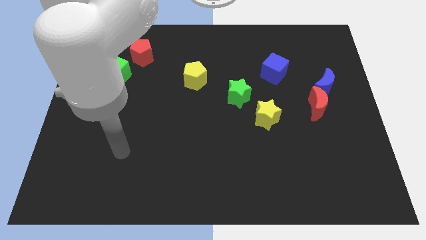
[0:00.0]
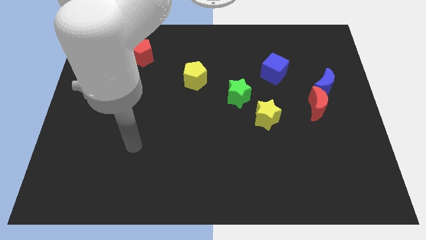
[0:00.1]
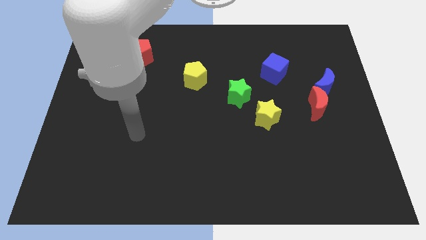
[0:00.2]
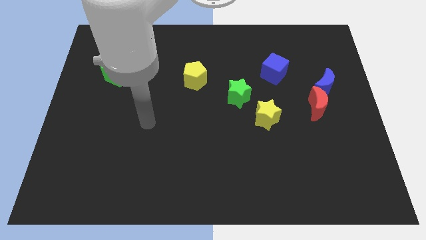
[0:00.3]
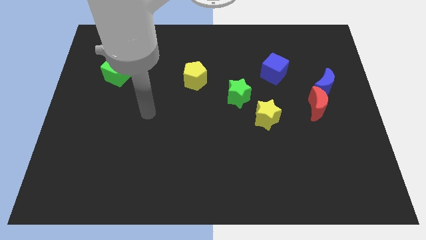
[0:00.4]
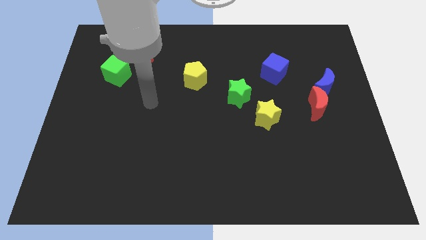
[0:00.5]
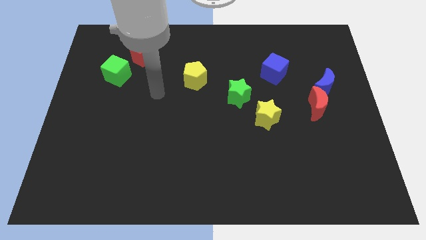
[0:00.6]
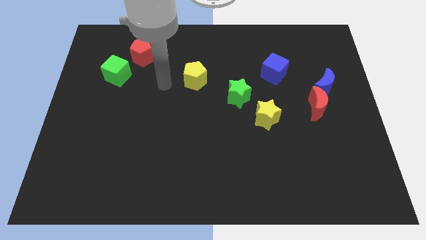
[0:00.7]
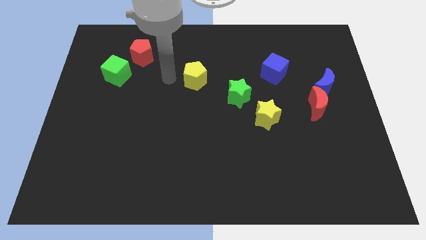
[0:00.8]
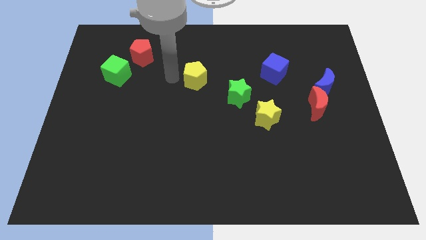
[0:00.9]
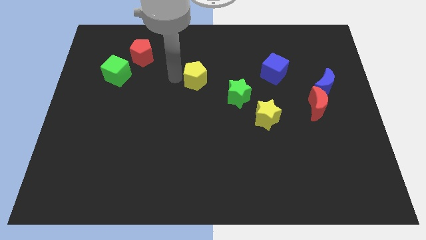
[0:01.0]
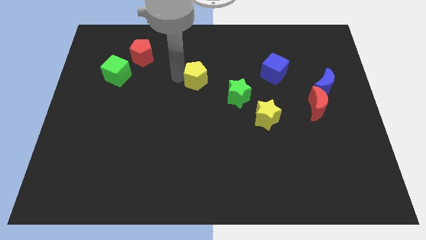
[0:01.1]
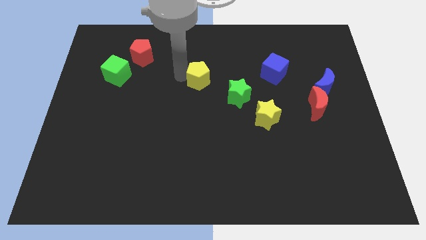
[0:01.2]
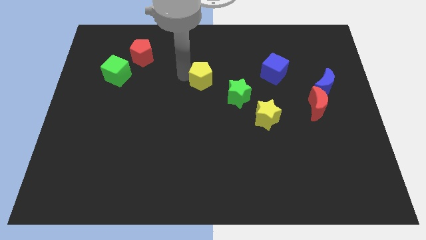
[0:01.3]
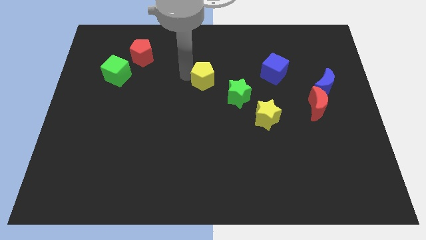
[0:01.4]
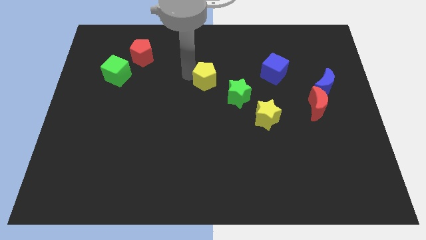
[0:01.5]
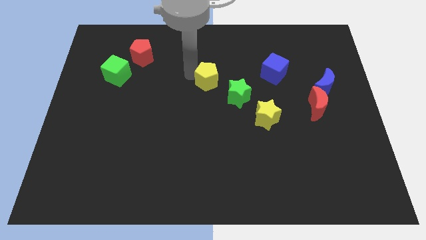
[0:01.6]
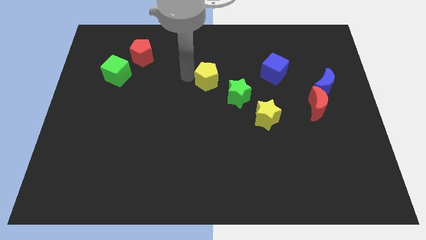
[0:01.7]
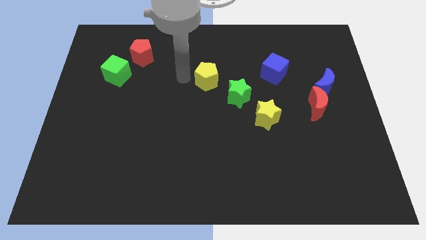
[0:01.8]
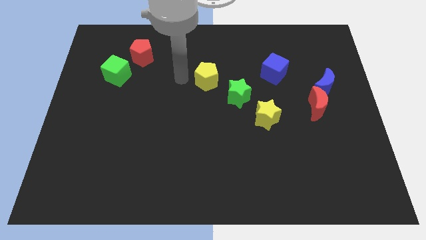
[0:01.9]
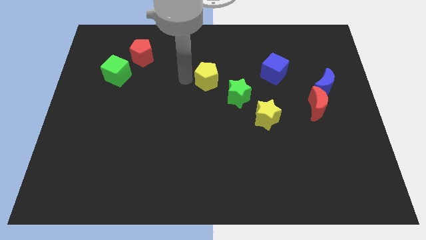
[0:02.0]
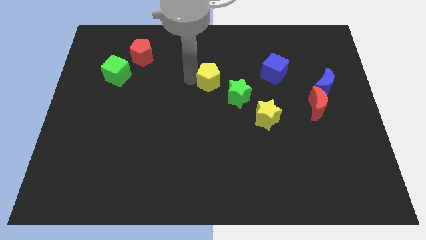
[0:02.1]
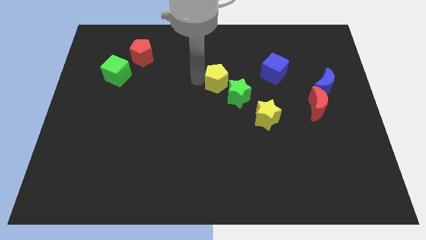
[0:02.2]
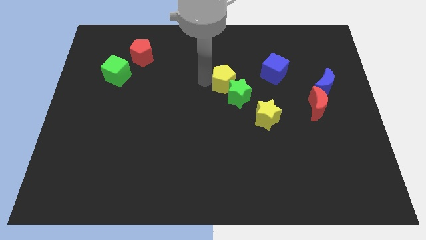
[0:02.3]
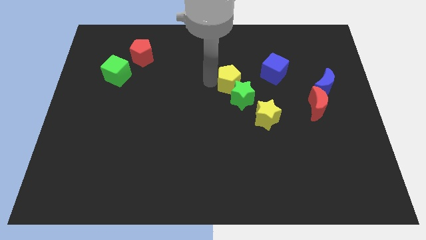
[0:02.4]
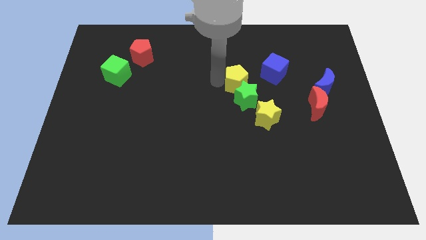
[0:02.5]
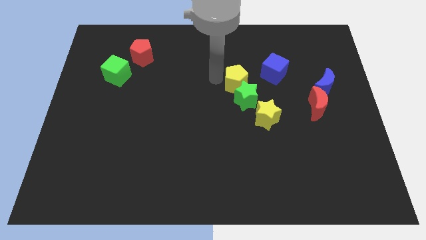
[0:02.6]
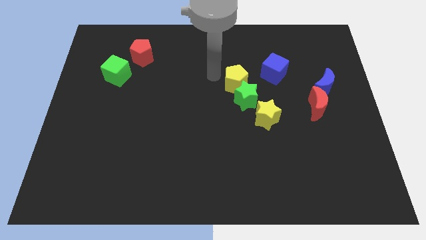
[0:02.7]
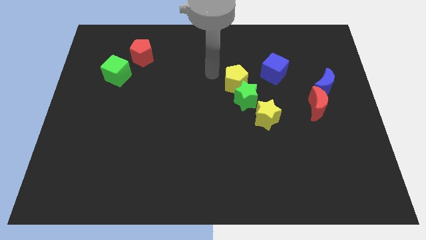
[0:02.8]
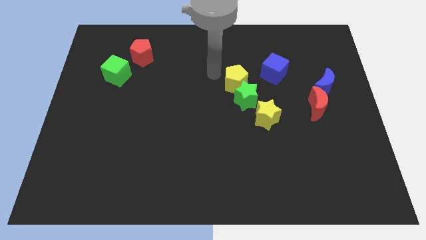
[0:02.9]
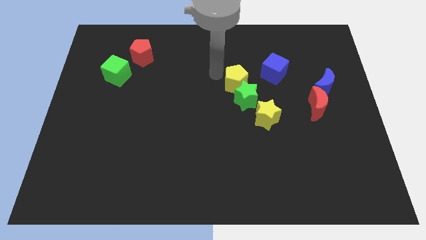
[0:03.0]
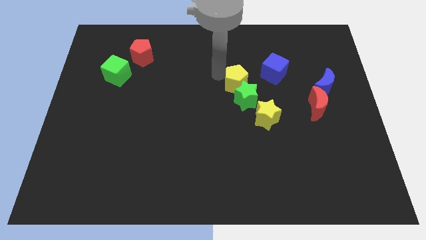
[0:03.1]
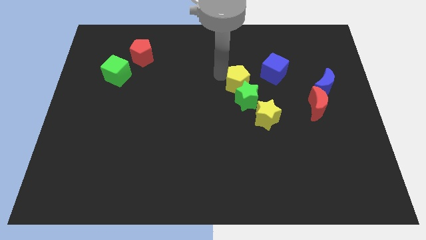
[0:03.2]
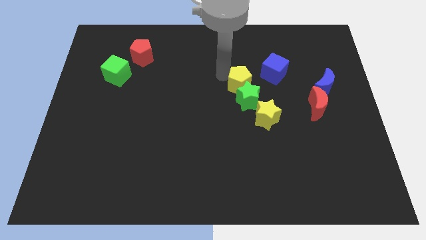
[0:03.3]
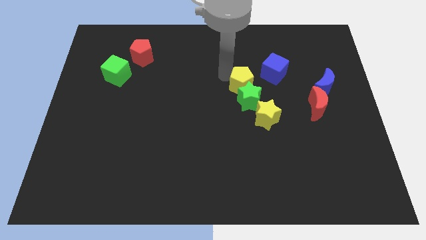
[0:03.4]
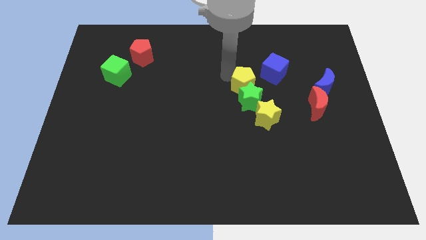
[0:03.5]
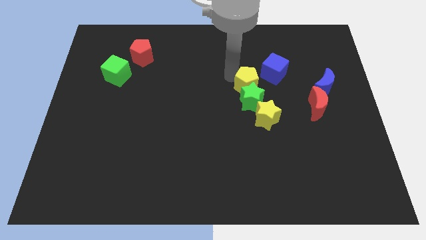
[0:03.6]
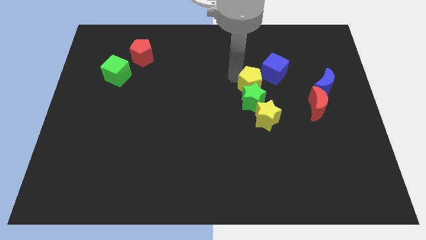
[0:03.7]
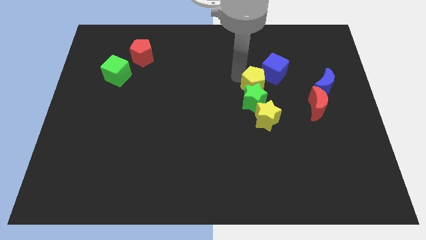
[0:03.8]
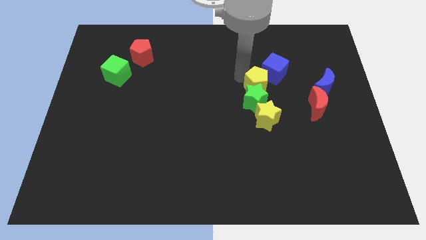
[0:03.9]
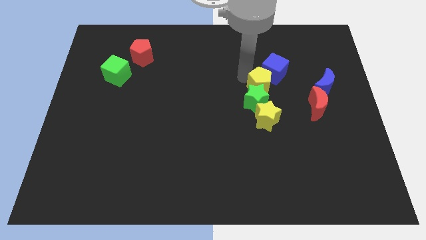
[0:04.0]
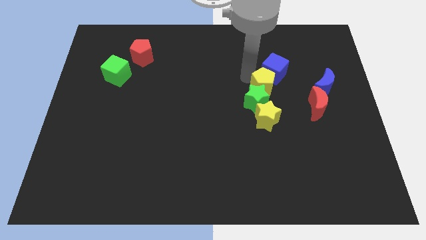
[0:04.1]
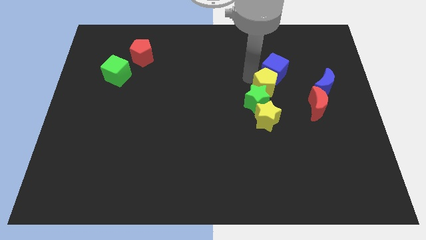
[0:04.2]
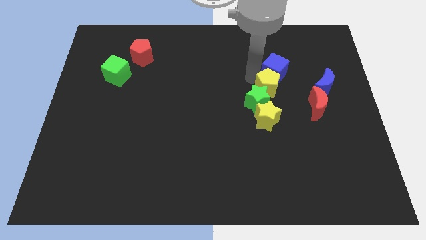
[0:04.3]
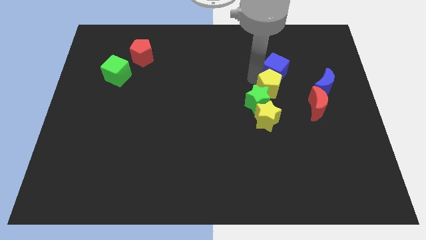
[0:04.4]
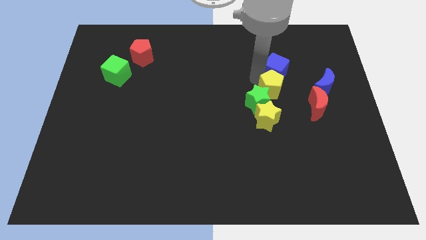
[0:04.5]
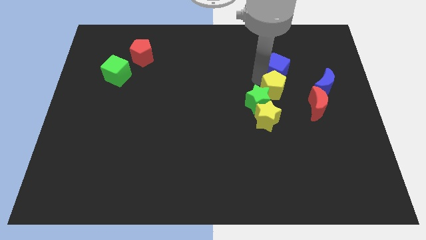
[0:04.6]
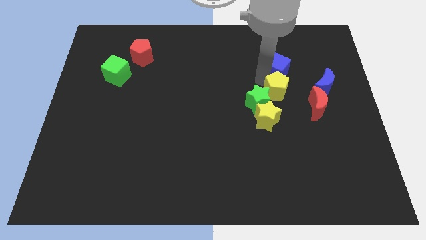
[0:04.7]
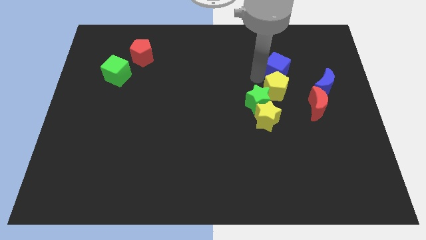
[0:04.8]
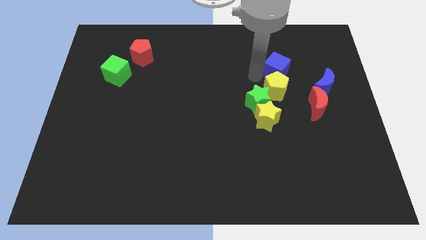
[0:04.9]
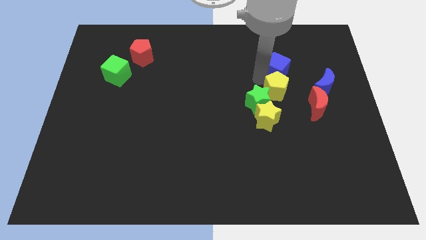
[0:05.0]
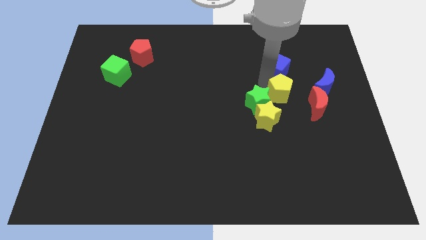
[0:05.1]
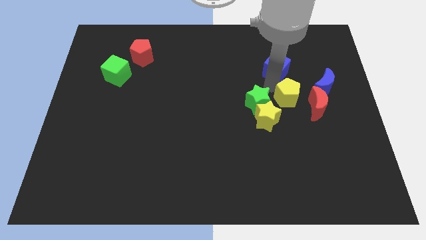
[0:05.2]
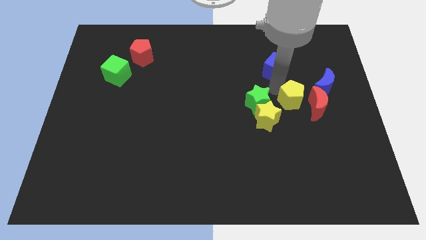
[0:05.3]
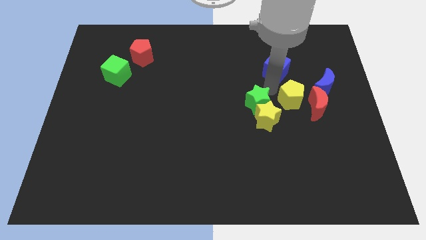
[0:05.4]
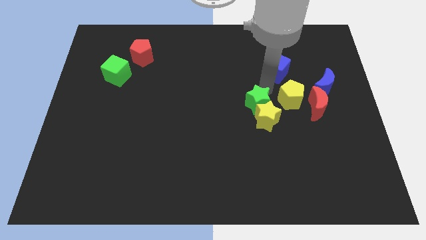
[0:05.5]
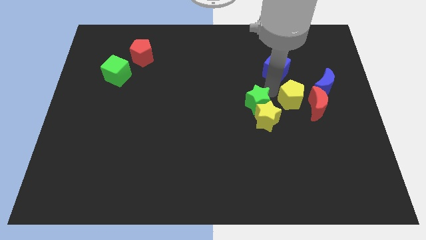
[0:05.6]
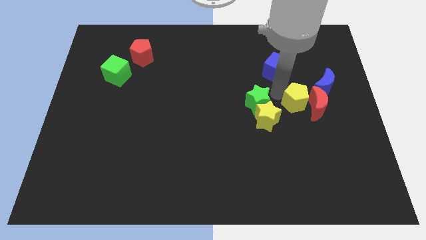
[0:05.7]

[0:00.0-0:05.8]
slide the yellow pentagon to the red moon

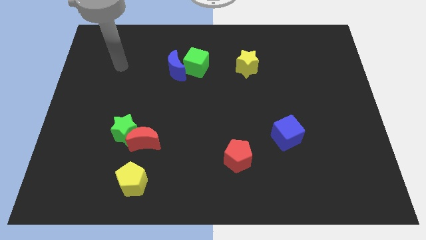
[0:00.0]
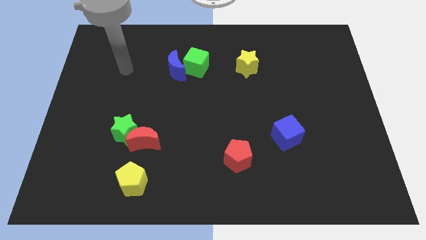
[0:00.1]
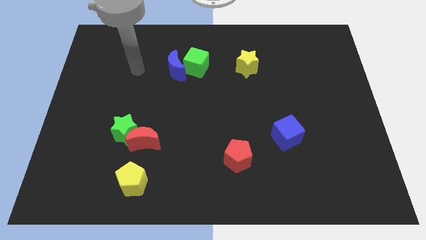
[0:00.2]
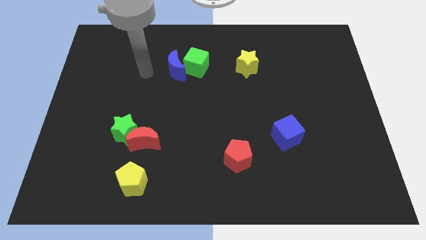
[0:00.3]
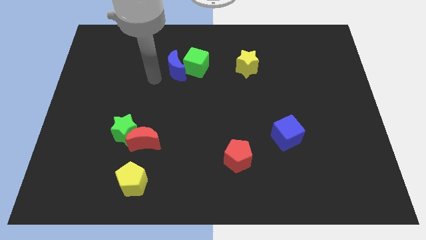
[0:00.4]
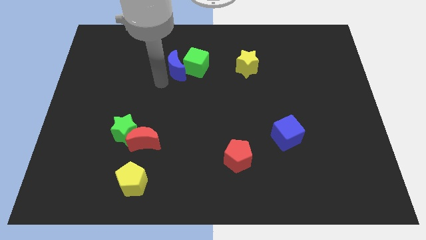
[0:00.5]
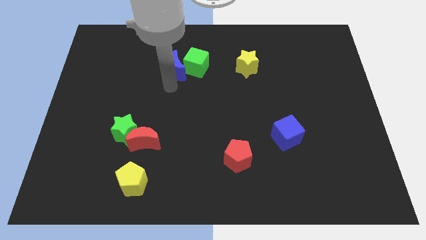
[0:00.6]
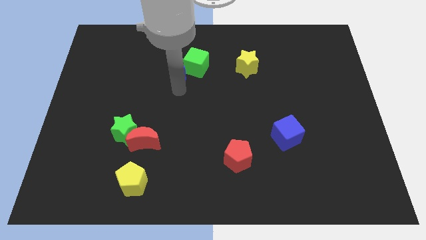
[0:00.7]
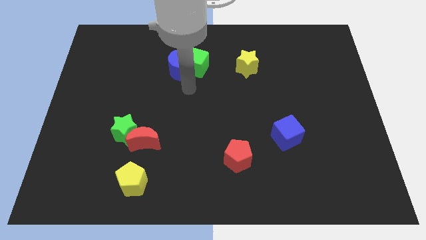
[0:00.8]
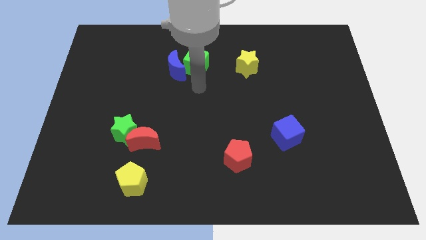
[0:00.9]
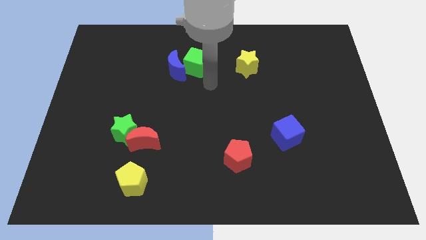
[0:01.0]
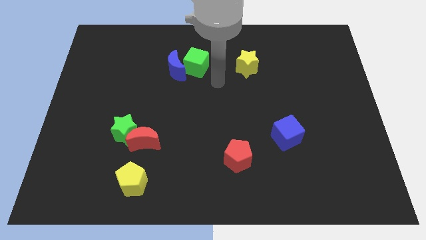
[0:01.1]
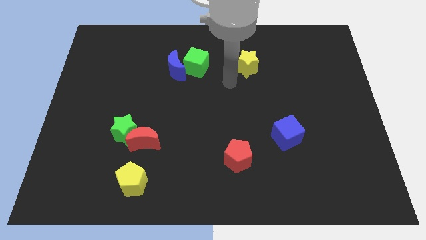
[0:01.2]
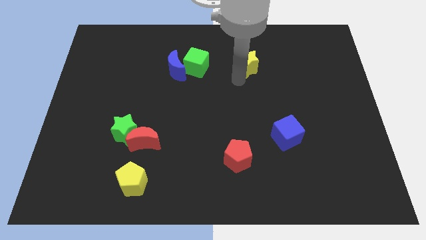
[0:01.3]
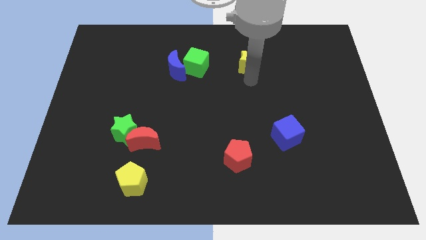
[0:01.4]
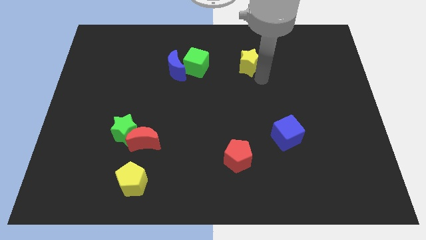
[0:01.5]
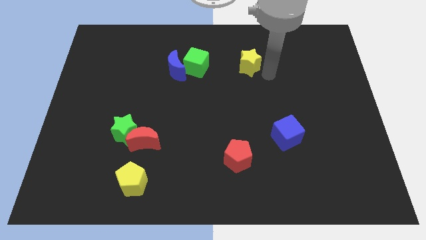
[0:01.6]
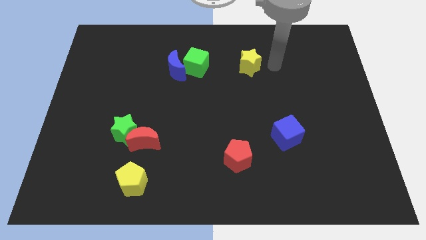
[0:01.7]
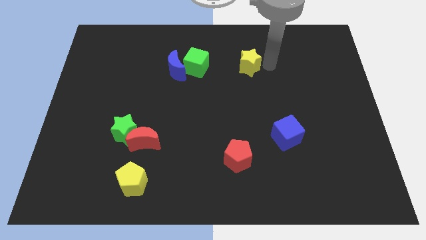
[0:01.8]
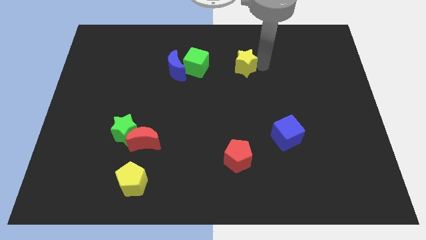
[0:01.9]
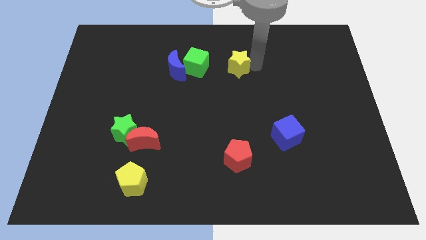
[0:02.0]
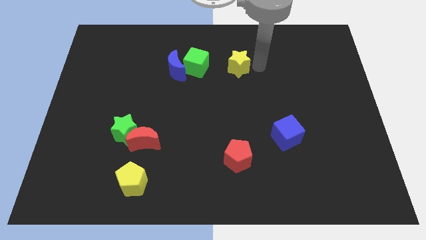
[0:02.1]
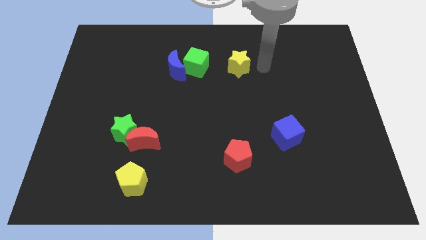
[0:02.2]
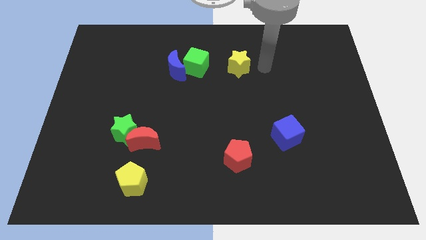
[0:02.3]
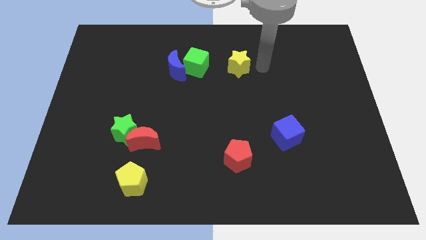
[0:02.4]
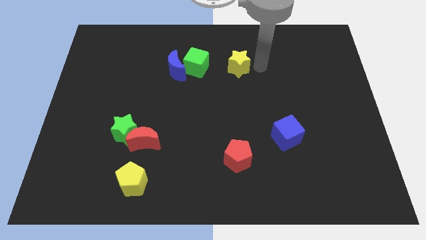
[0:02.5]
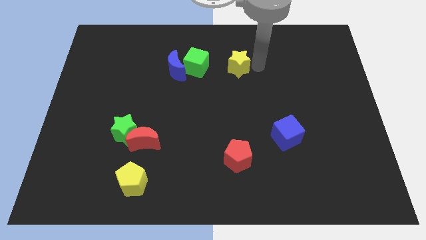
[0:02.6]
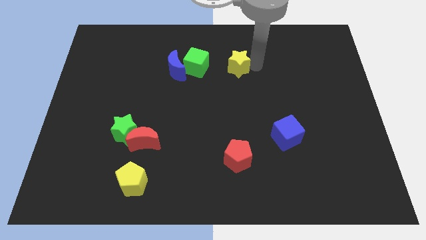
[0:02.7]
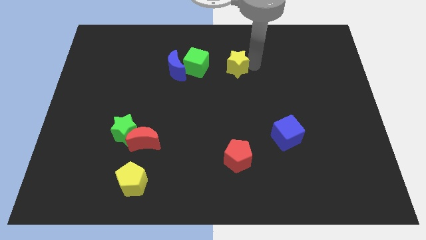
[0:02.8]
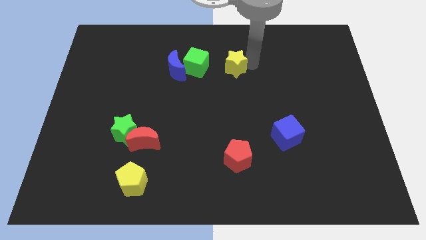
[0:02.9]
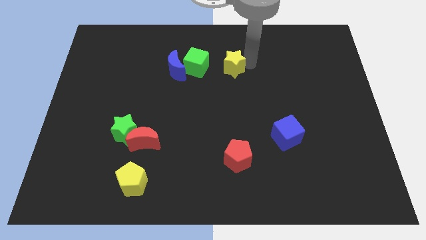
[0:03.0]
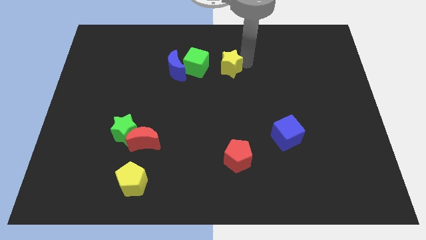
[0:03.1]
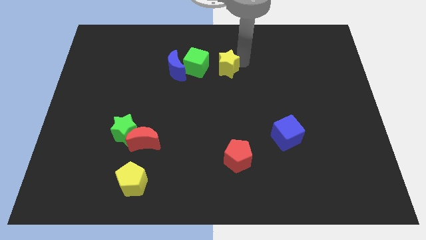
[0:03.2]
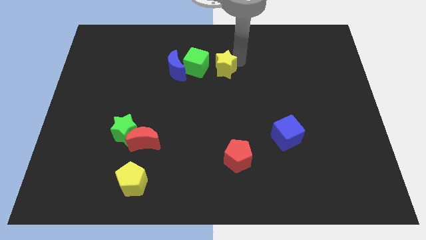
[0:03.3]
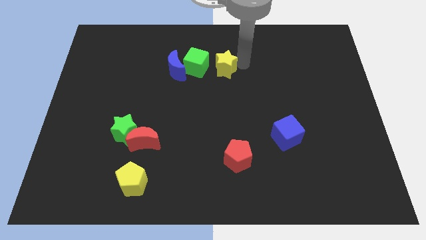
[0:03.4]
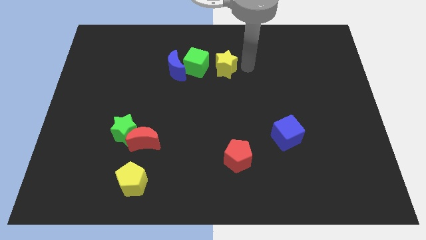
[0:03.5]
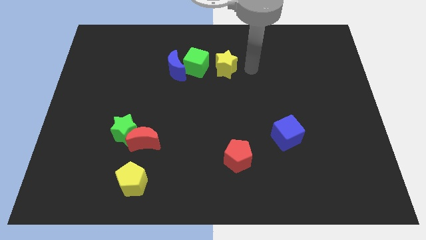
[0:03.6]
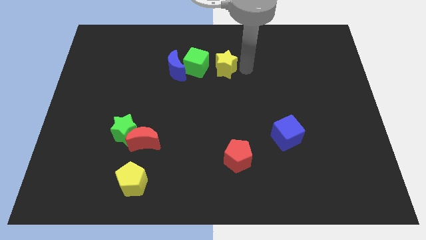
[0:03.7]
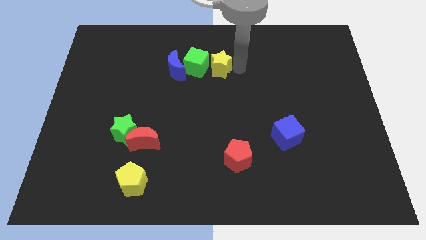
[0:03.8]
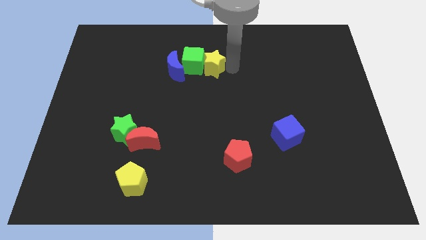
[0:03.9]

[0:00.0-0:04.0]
push the yellow star close to the green cube
